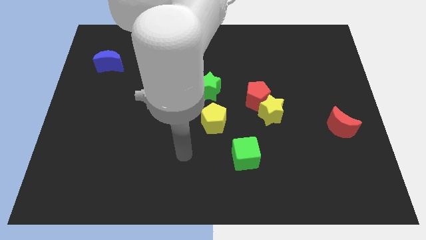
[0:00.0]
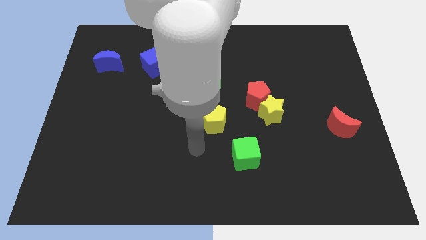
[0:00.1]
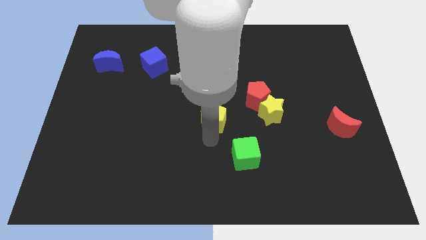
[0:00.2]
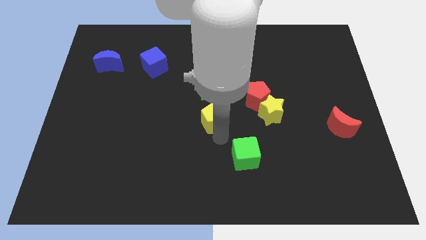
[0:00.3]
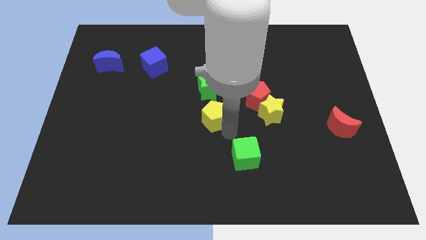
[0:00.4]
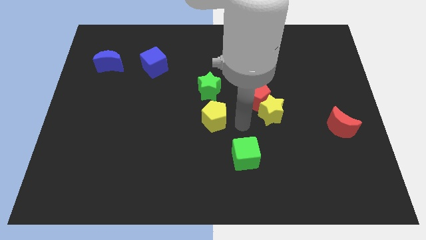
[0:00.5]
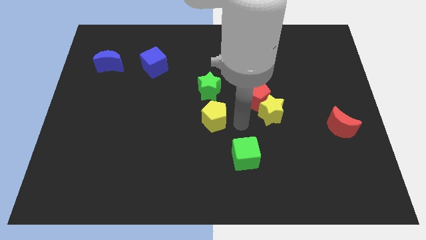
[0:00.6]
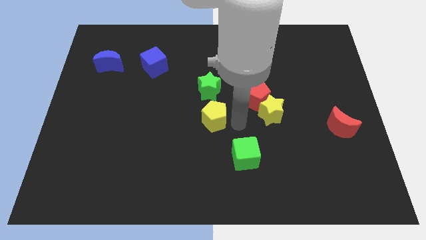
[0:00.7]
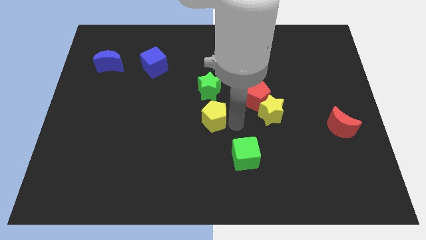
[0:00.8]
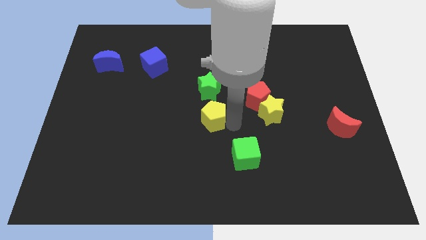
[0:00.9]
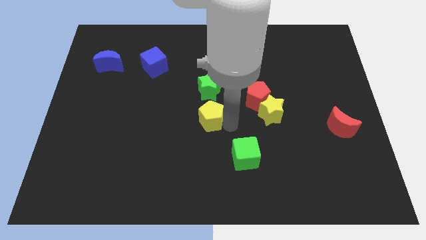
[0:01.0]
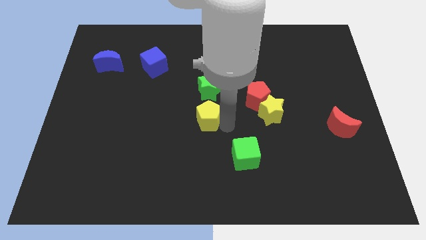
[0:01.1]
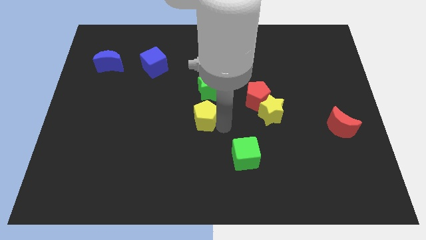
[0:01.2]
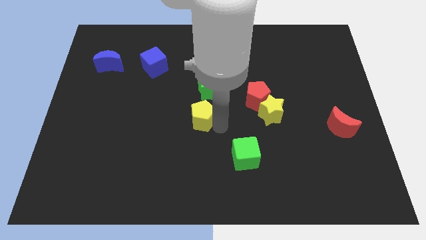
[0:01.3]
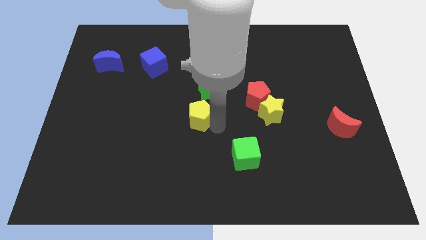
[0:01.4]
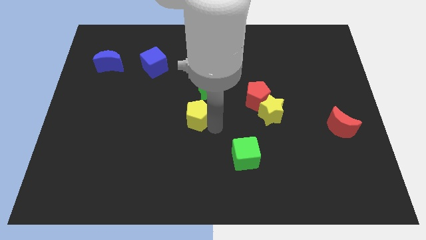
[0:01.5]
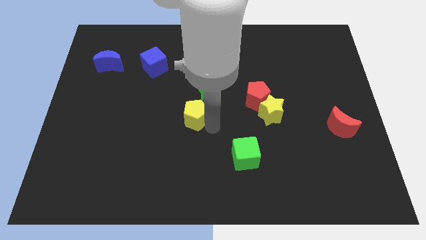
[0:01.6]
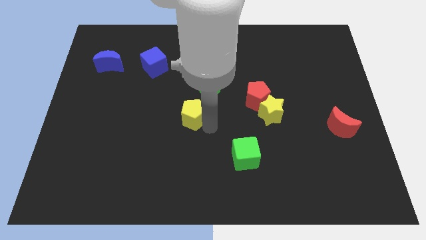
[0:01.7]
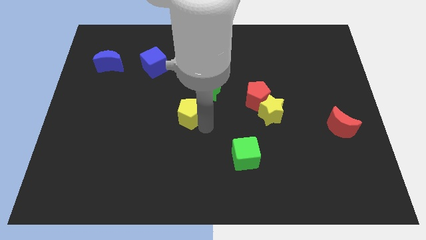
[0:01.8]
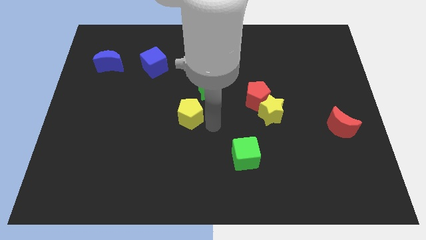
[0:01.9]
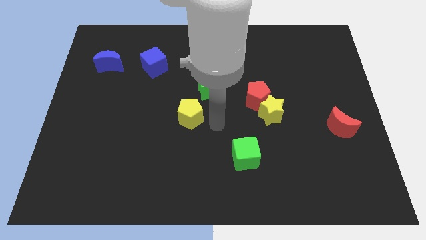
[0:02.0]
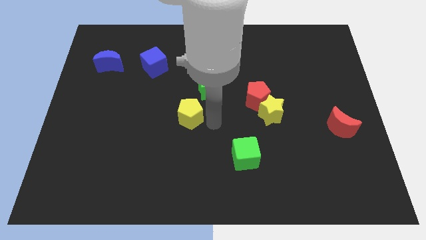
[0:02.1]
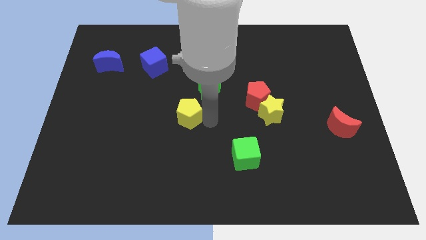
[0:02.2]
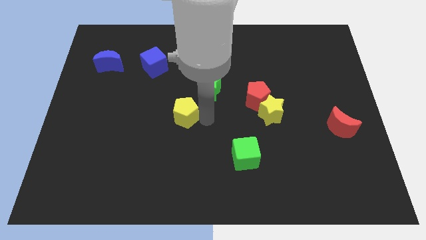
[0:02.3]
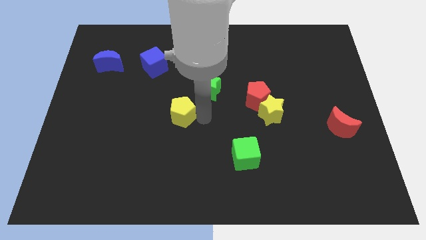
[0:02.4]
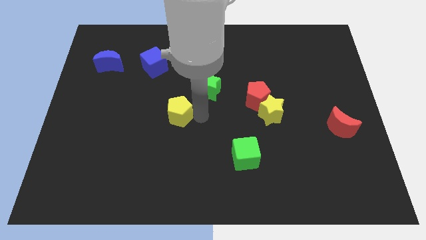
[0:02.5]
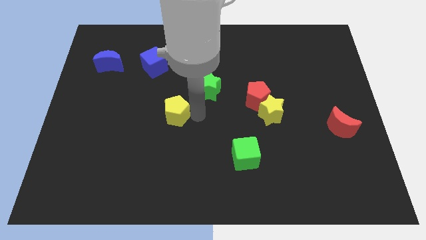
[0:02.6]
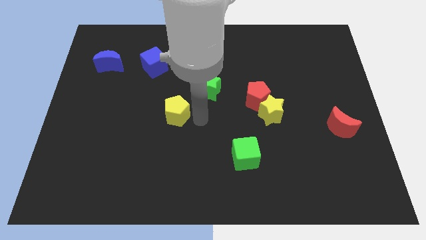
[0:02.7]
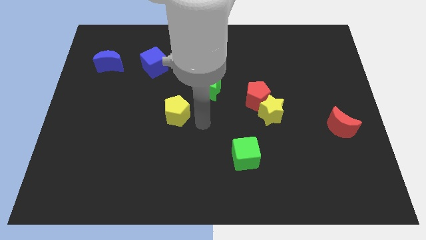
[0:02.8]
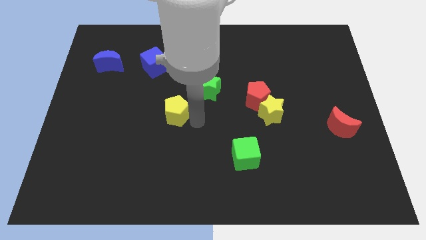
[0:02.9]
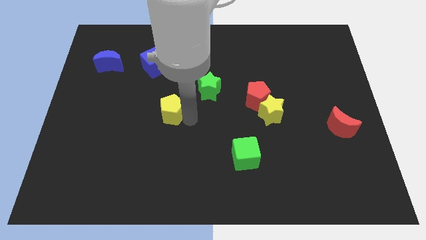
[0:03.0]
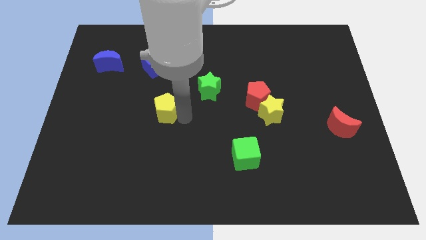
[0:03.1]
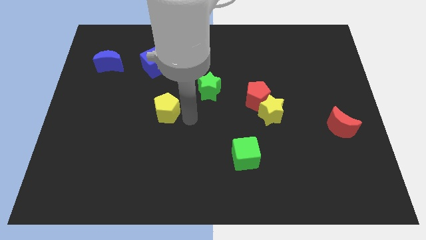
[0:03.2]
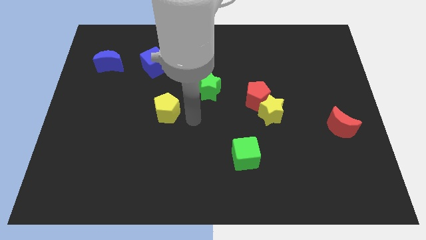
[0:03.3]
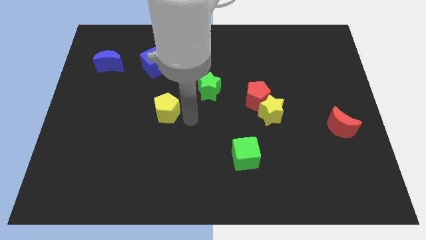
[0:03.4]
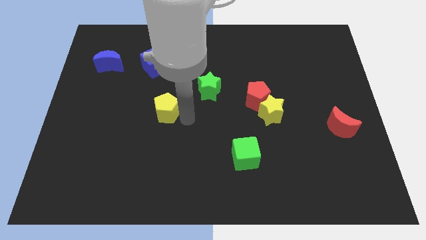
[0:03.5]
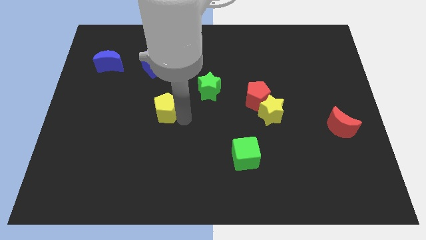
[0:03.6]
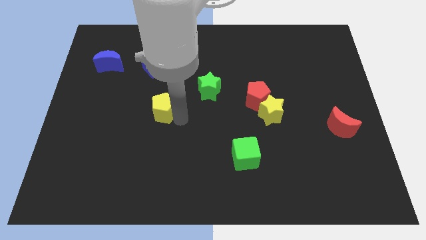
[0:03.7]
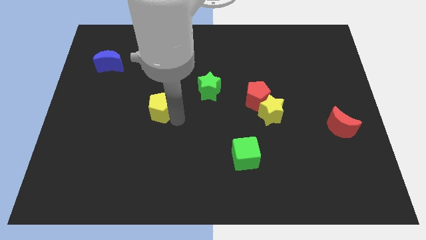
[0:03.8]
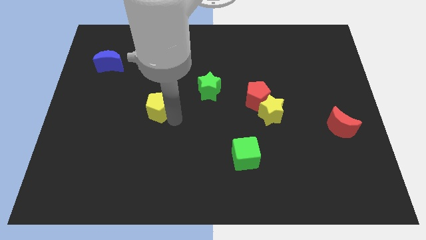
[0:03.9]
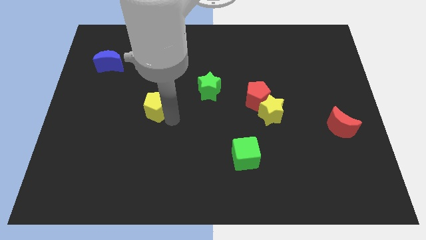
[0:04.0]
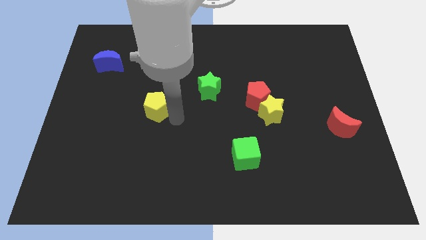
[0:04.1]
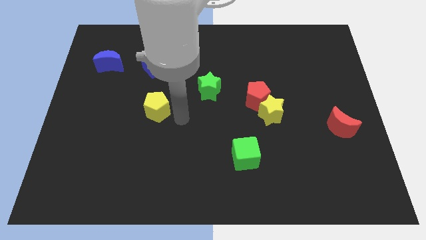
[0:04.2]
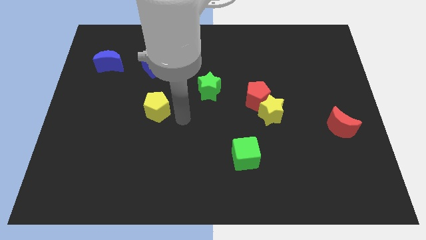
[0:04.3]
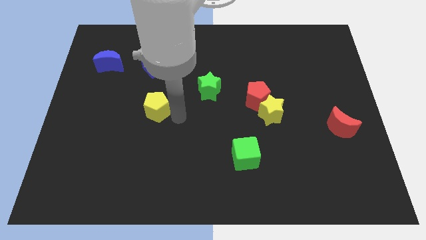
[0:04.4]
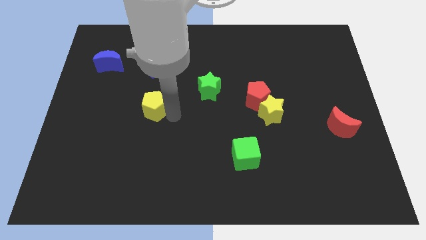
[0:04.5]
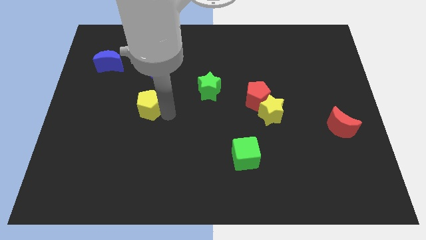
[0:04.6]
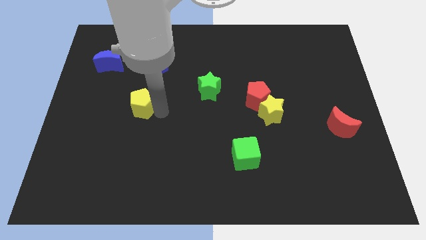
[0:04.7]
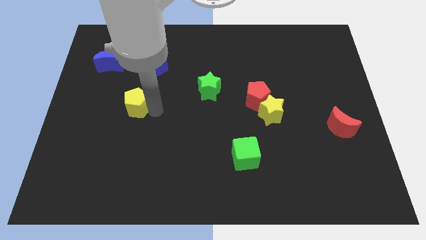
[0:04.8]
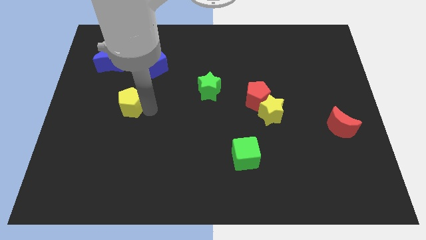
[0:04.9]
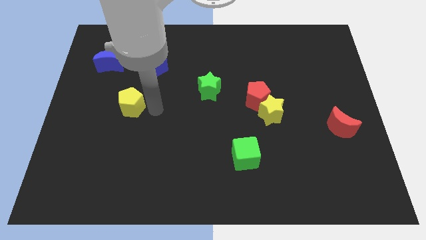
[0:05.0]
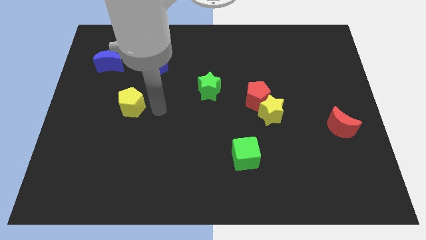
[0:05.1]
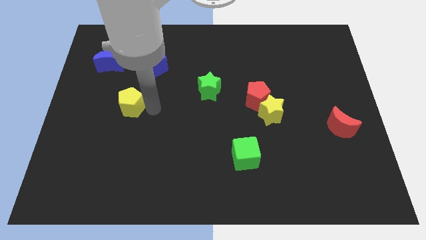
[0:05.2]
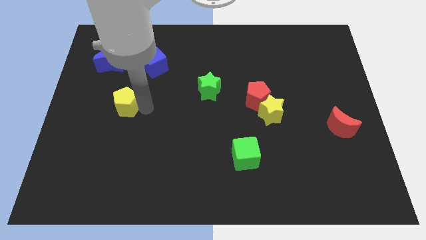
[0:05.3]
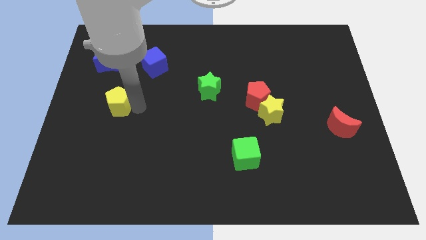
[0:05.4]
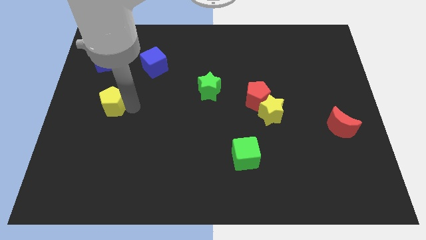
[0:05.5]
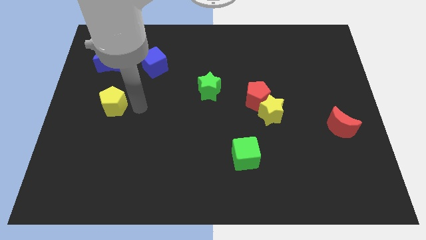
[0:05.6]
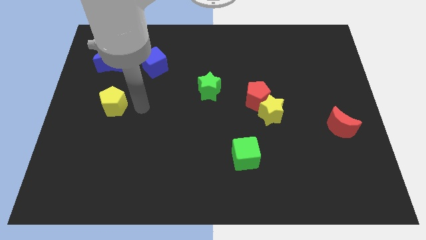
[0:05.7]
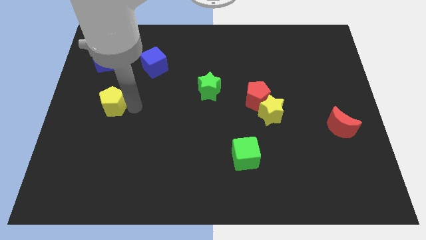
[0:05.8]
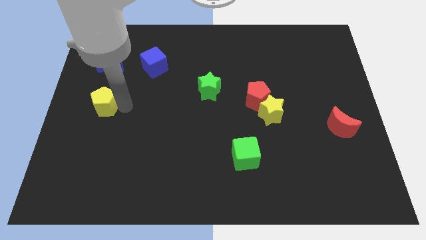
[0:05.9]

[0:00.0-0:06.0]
push the yellow pentagon to the center left

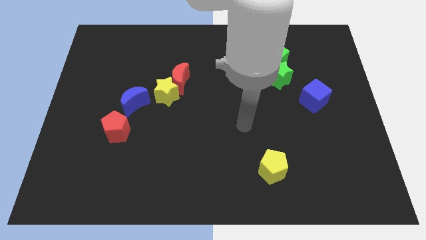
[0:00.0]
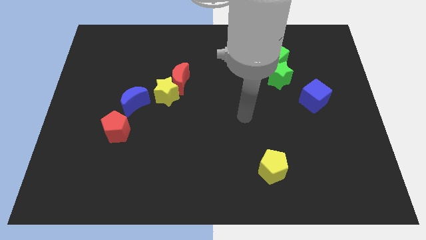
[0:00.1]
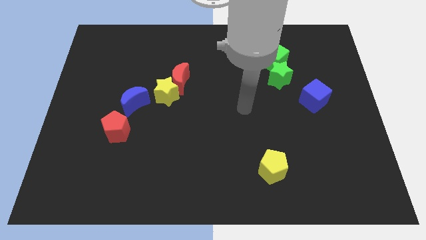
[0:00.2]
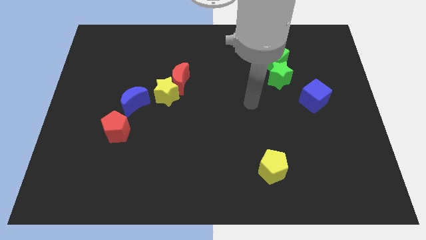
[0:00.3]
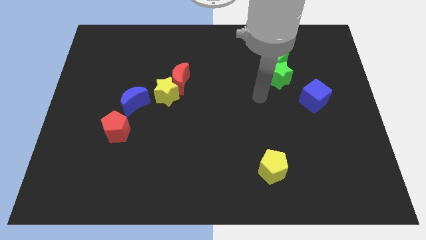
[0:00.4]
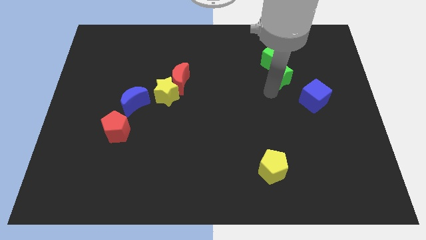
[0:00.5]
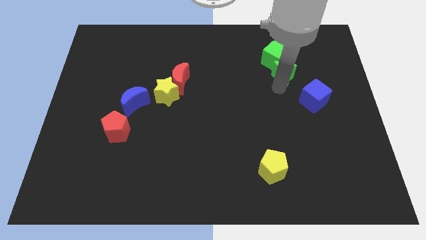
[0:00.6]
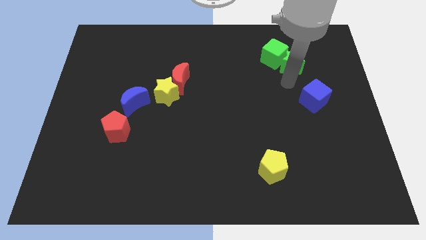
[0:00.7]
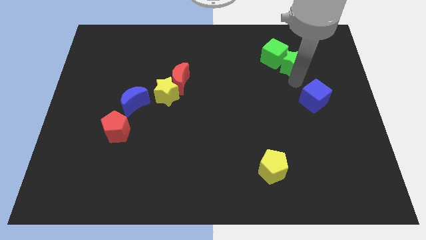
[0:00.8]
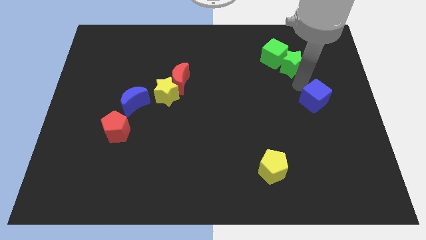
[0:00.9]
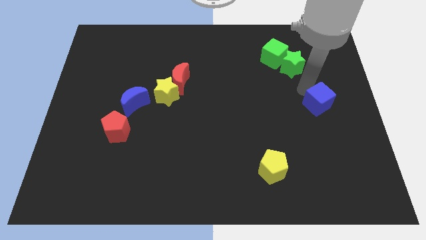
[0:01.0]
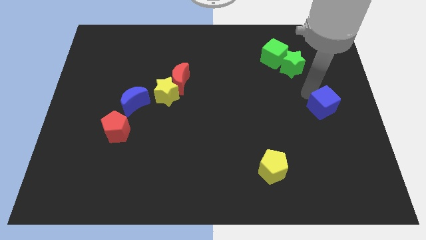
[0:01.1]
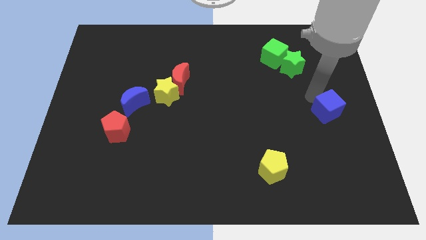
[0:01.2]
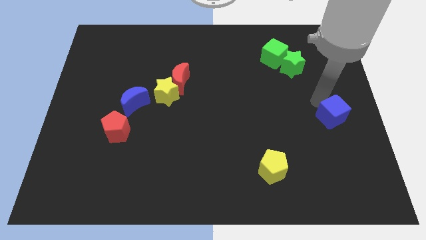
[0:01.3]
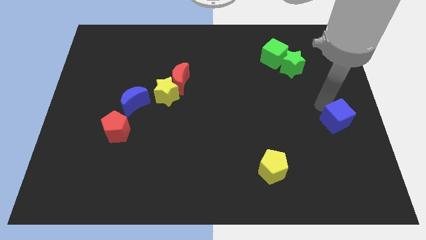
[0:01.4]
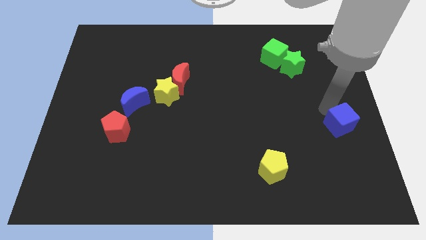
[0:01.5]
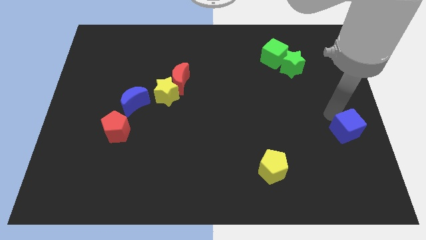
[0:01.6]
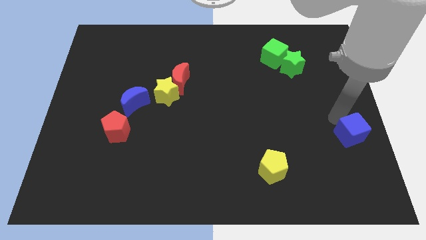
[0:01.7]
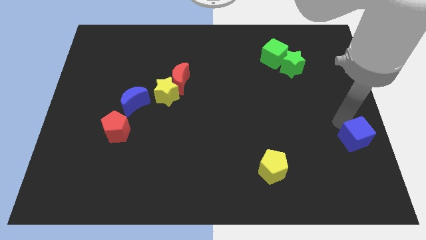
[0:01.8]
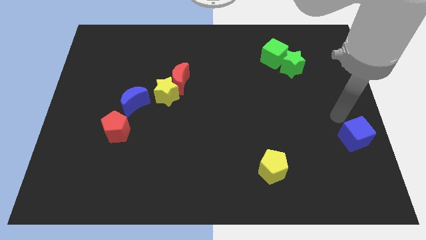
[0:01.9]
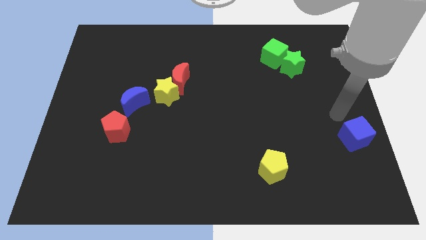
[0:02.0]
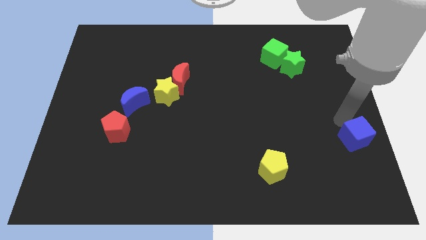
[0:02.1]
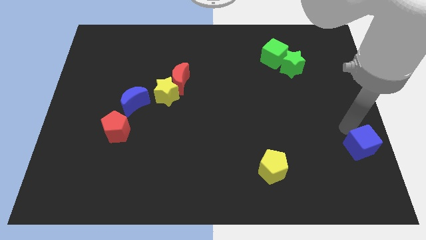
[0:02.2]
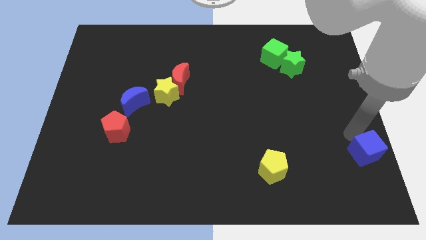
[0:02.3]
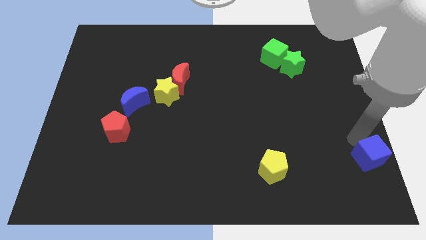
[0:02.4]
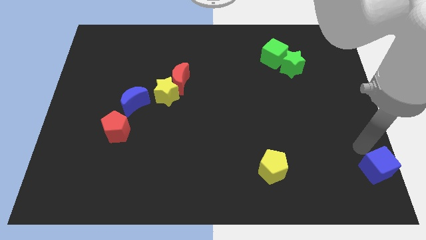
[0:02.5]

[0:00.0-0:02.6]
push the blue cube to the bottom right
